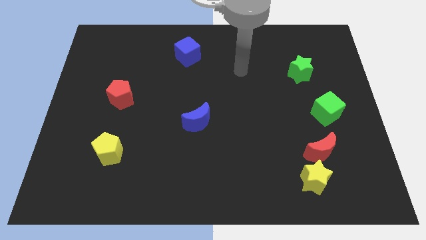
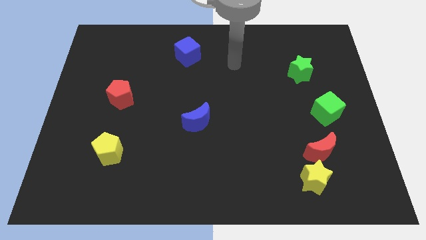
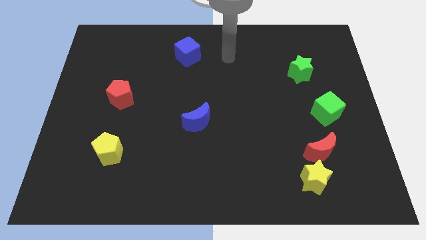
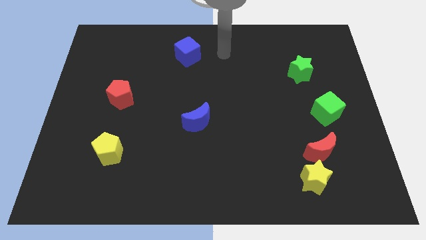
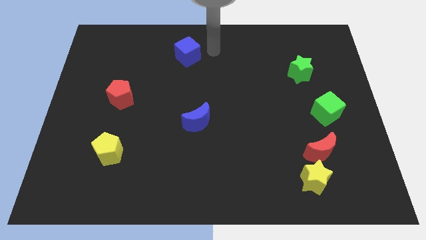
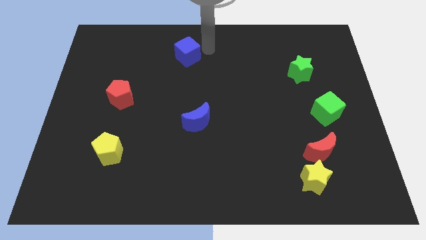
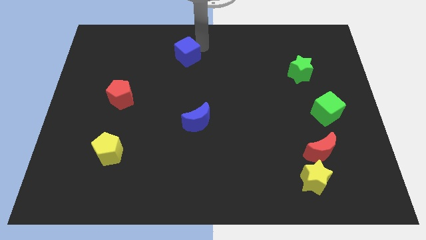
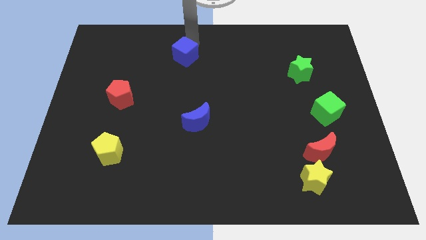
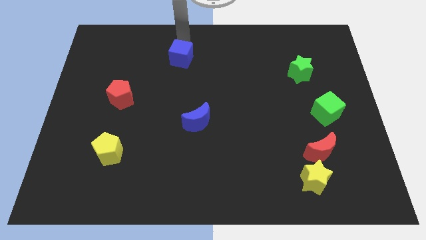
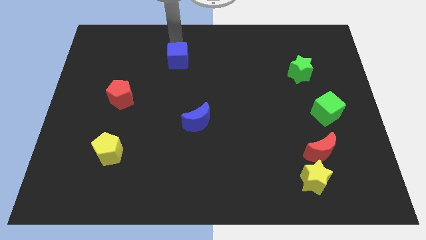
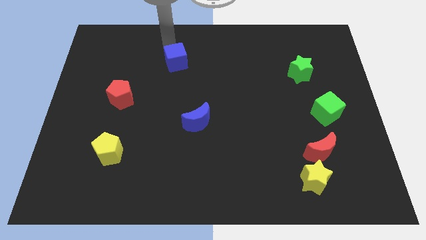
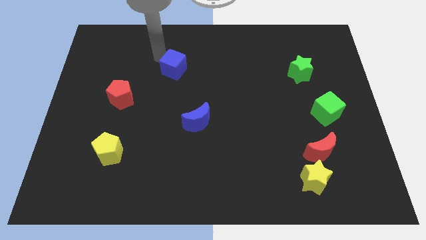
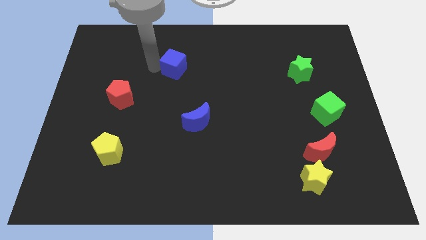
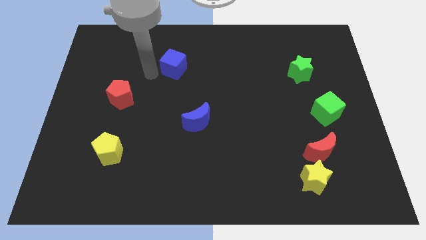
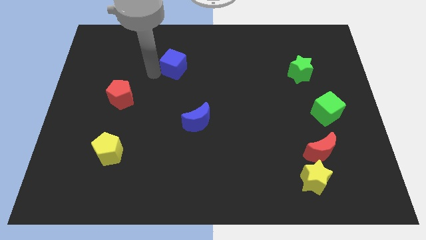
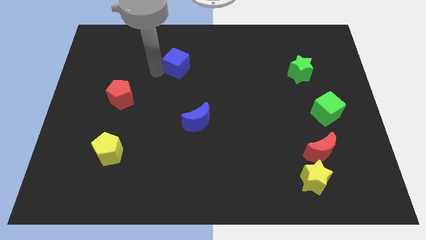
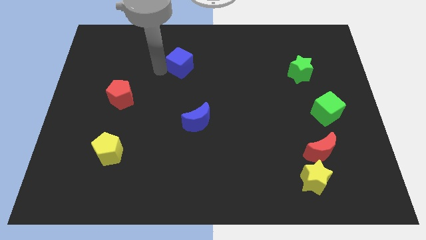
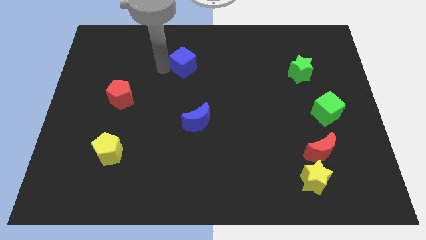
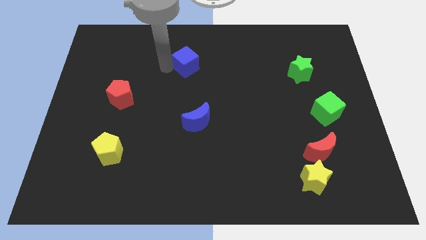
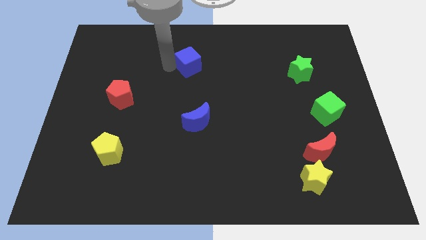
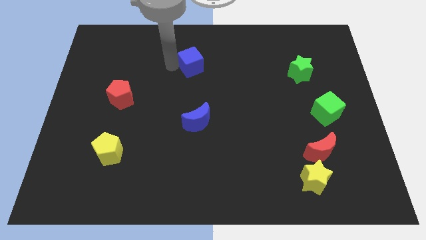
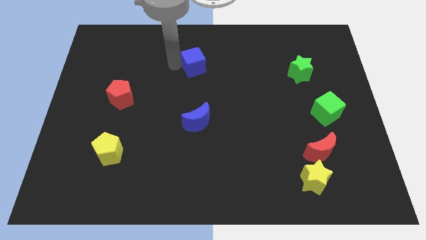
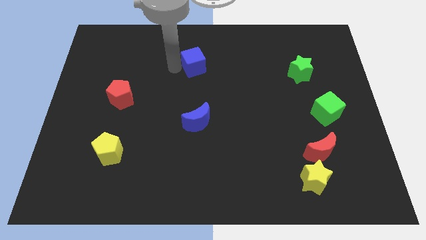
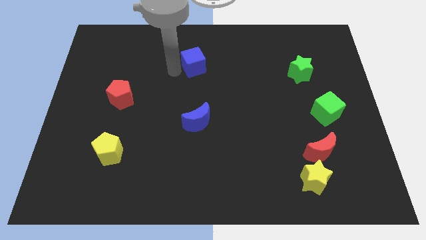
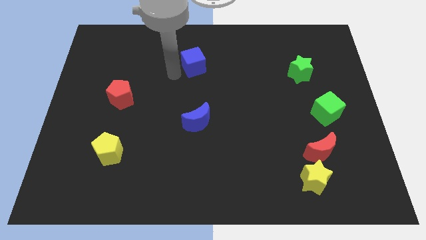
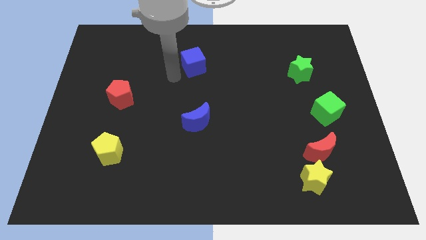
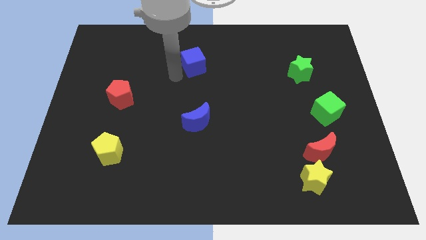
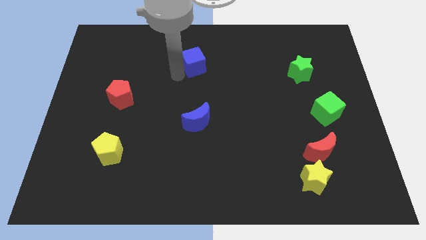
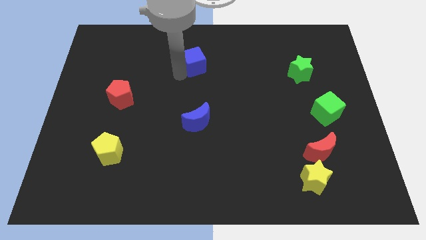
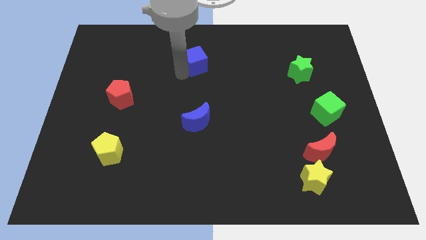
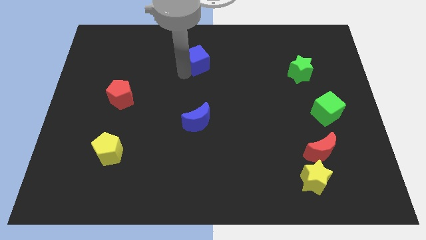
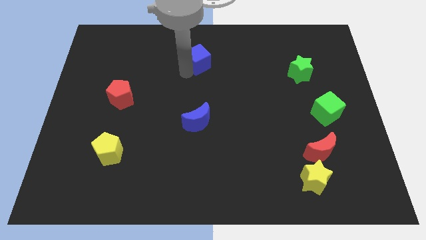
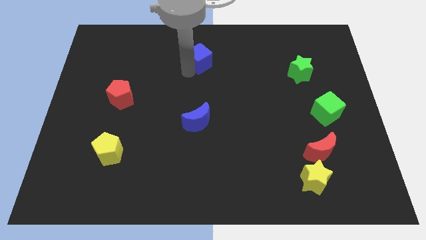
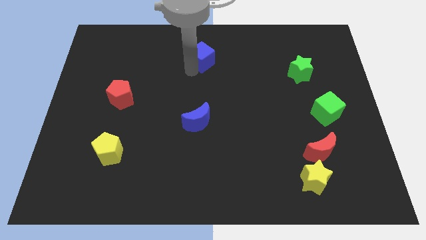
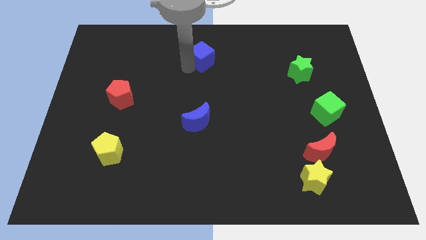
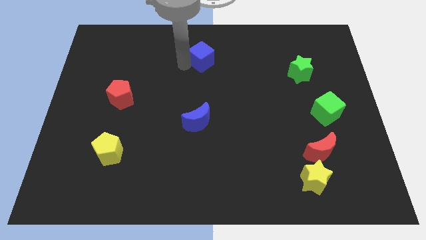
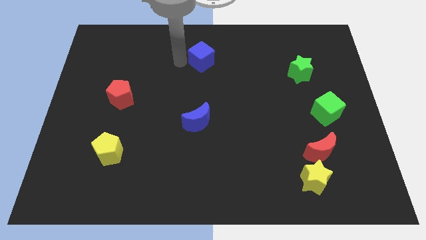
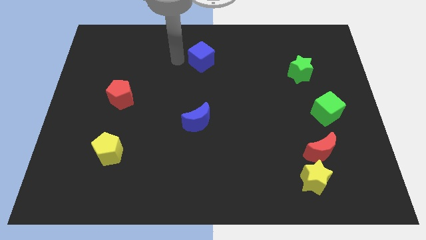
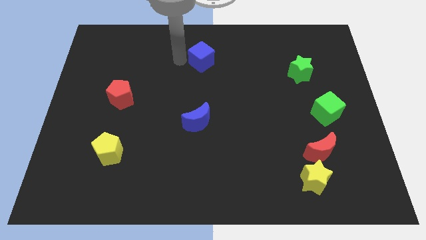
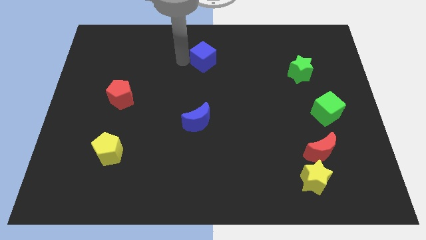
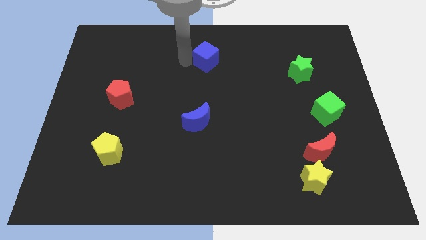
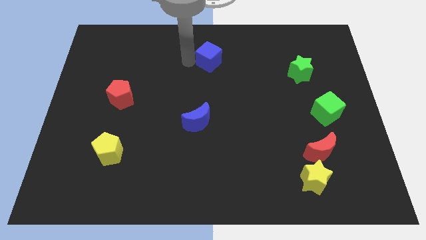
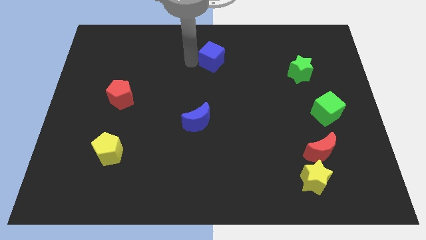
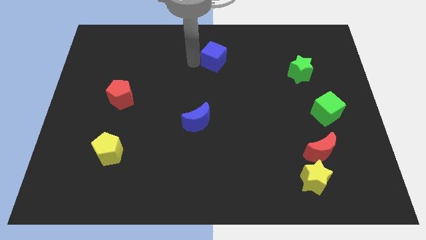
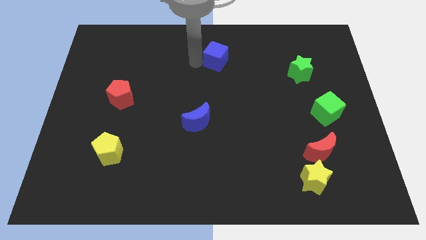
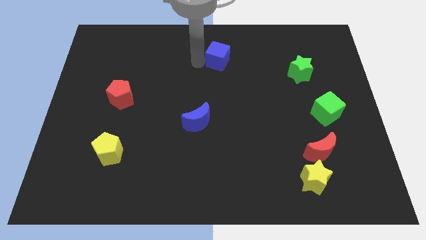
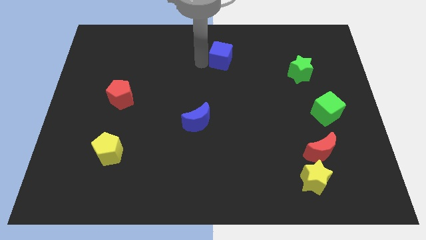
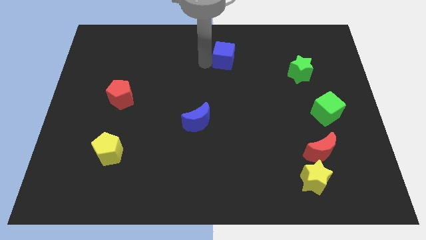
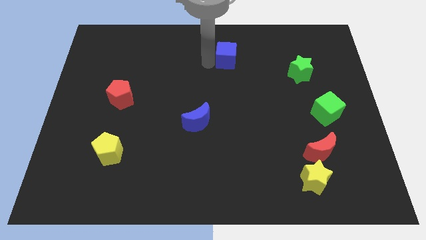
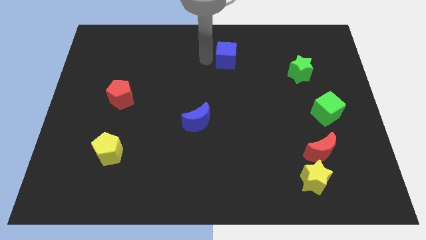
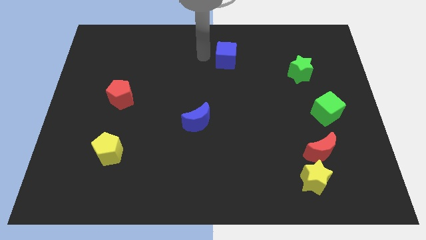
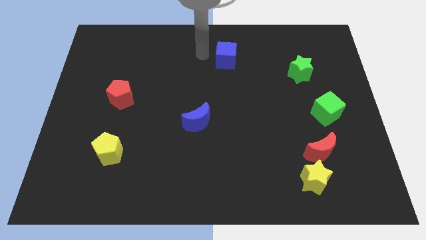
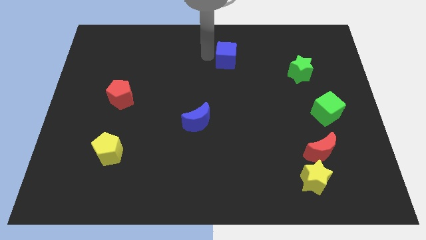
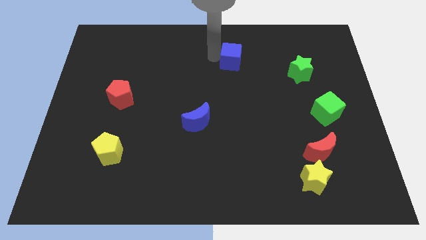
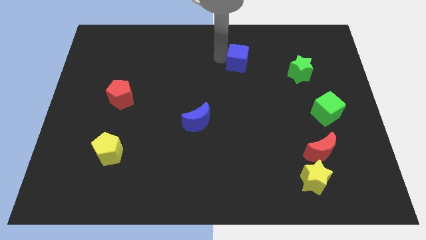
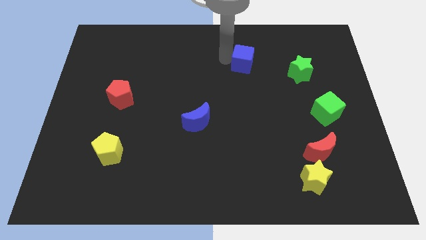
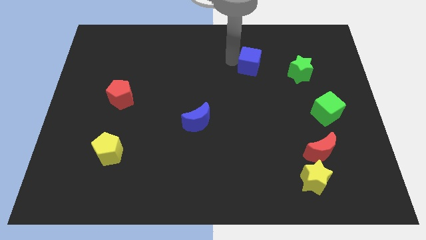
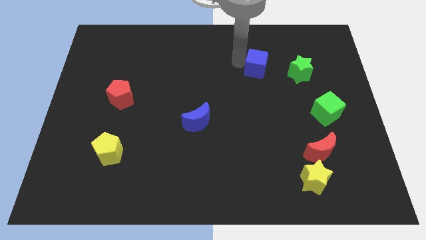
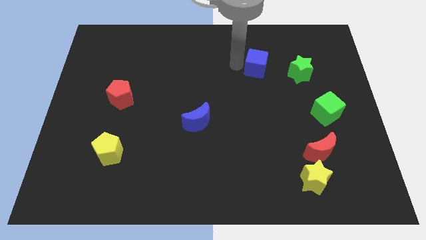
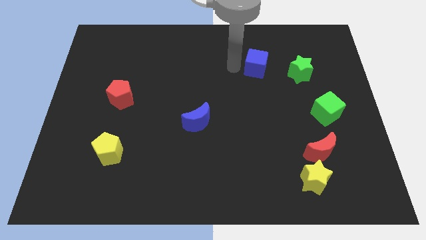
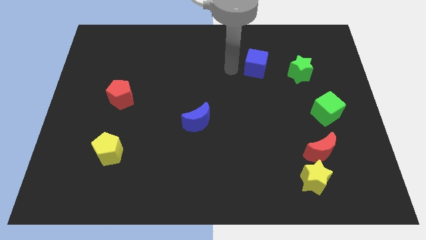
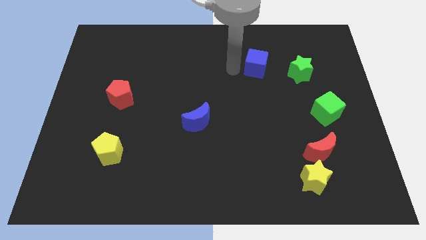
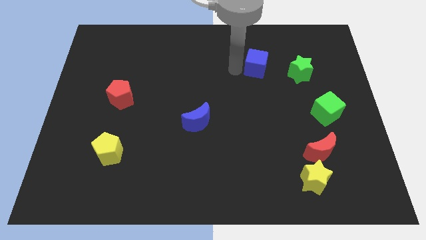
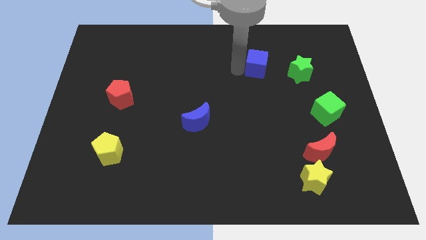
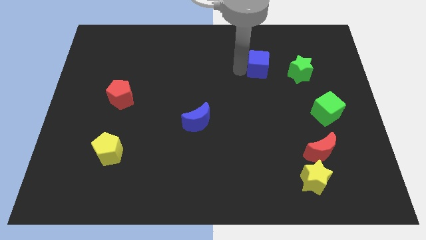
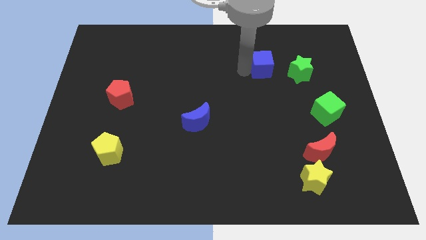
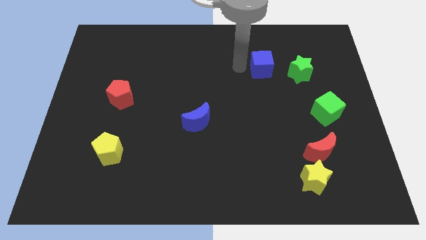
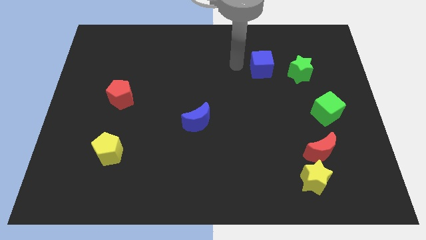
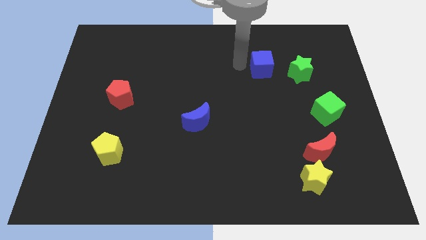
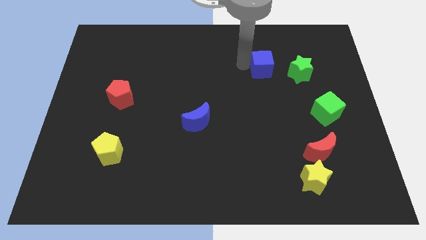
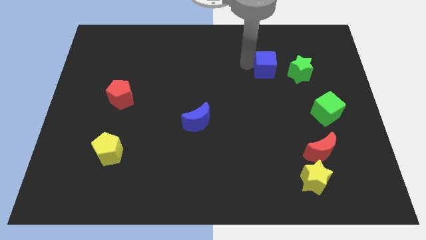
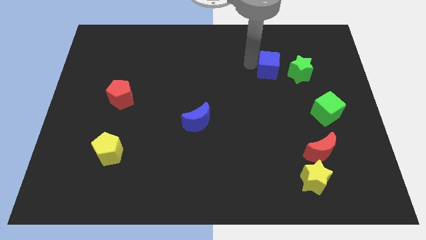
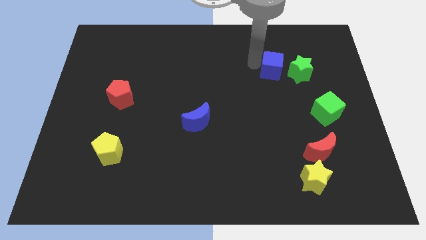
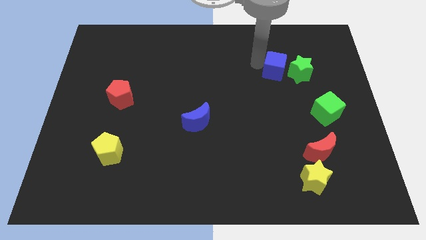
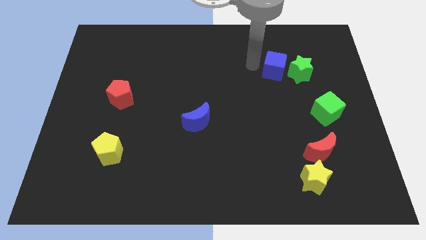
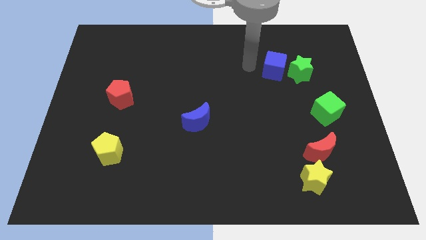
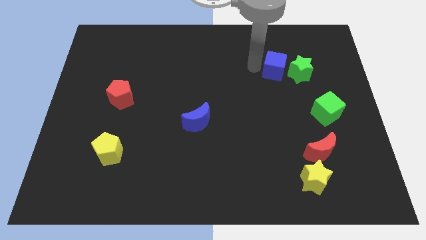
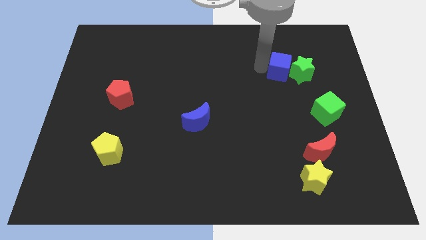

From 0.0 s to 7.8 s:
put the blue cube close to the green star

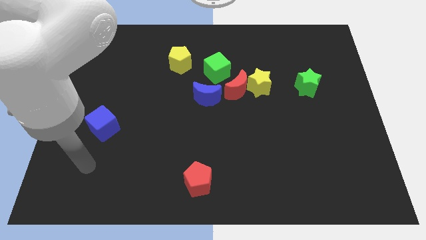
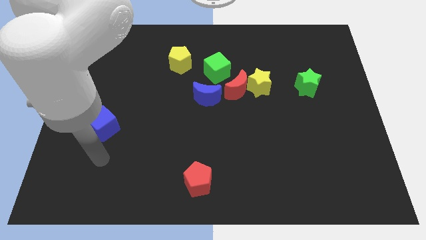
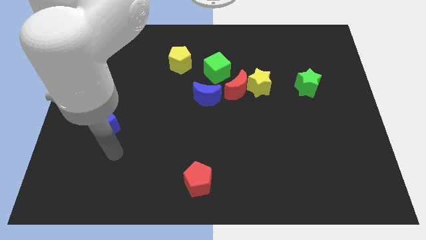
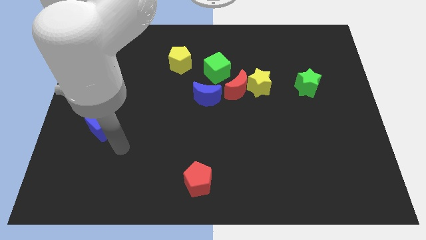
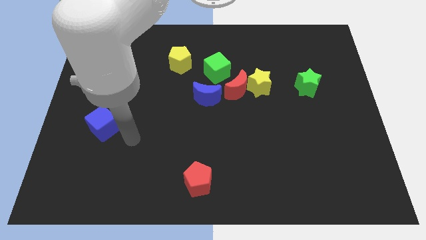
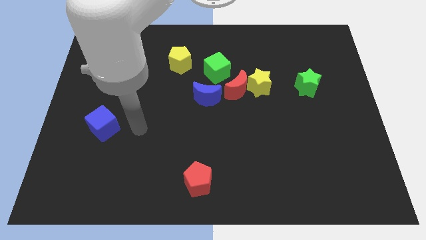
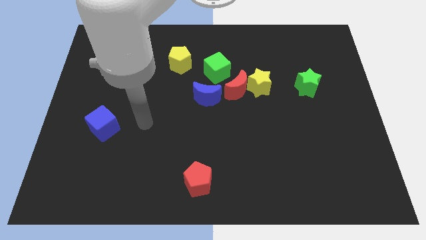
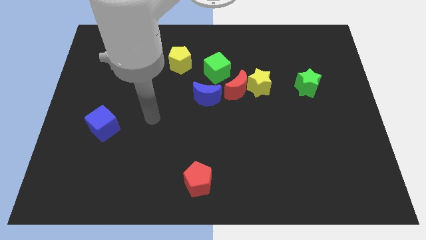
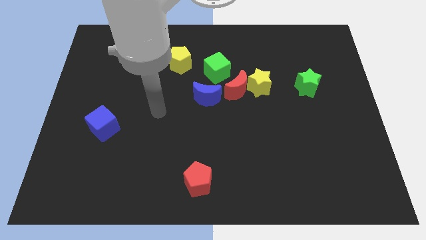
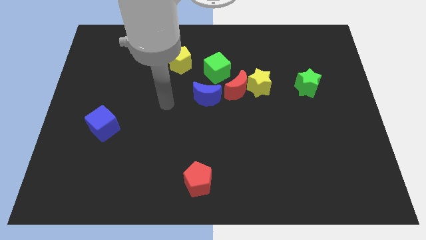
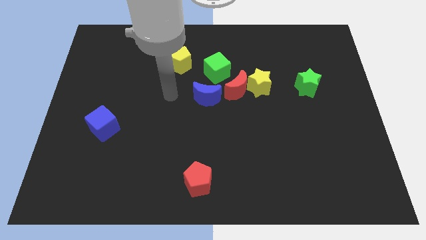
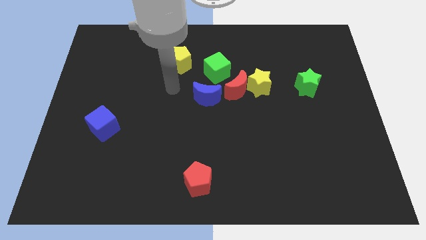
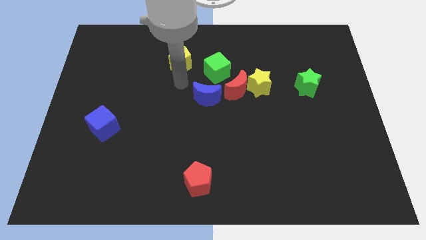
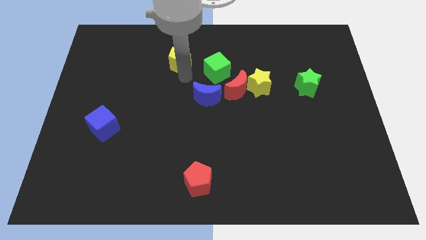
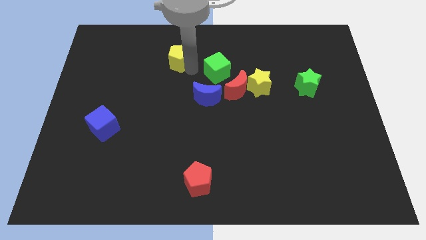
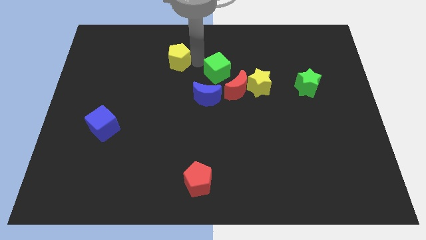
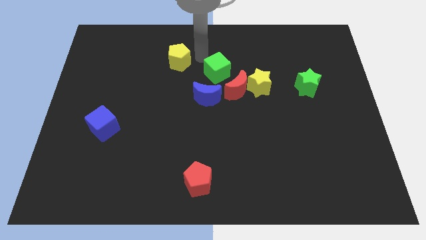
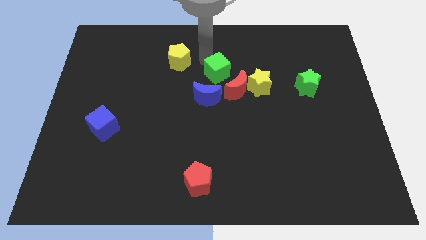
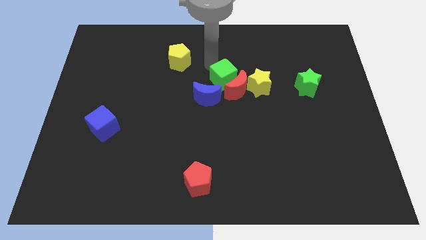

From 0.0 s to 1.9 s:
move the green cube close to the red moon
